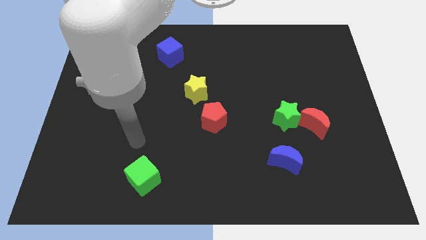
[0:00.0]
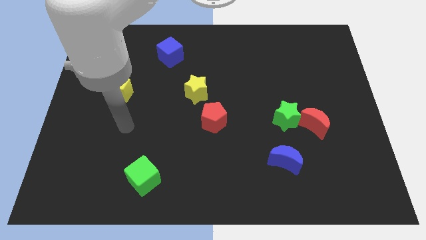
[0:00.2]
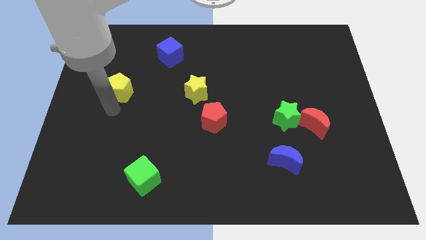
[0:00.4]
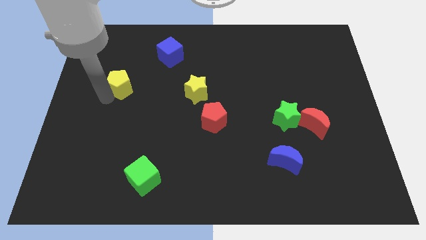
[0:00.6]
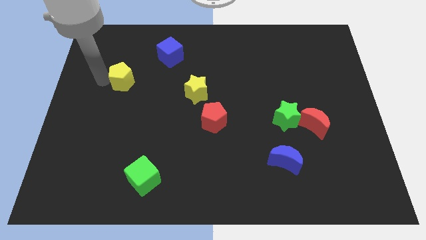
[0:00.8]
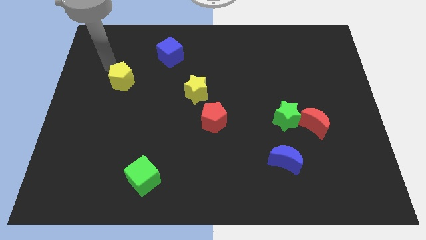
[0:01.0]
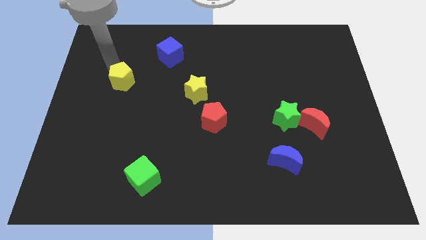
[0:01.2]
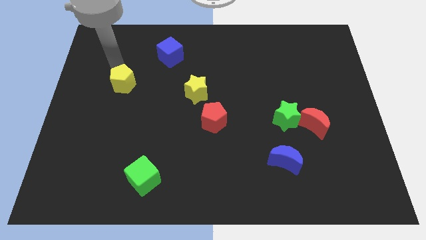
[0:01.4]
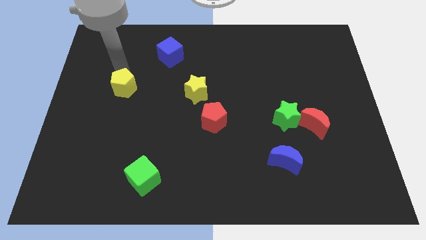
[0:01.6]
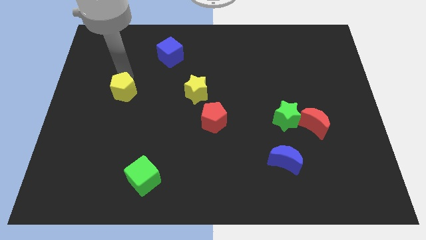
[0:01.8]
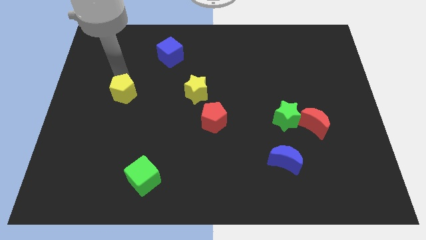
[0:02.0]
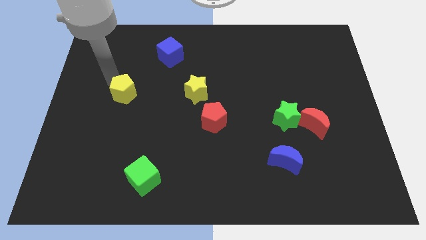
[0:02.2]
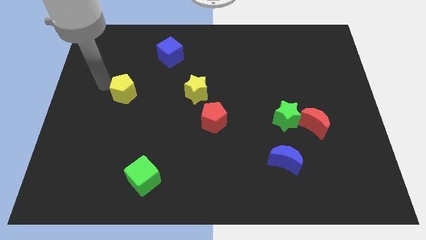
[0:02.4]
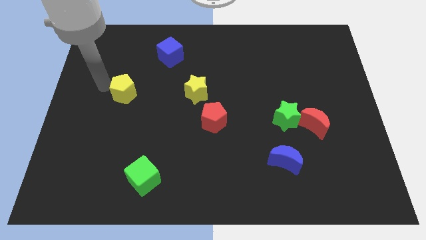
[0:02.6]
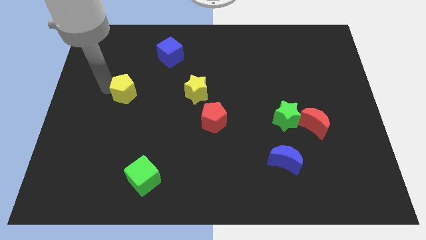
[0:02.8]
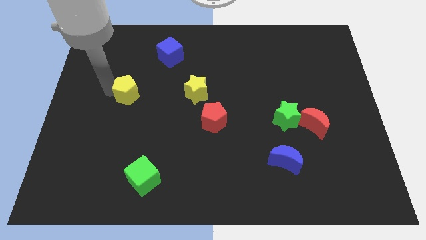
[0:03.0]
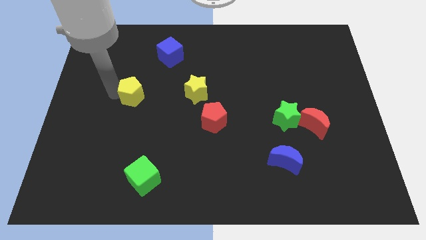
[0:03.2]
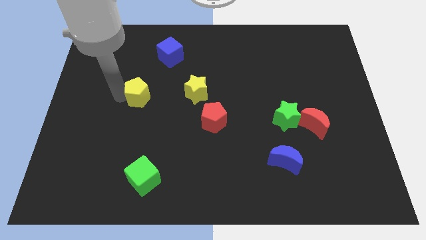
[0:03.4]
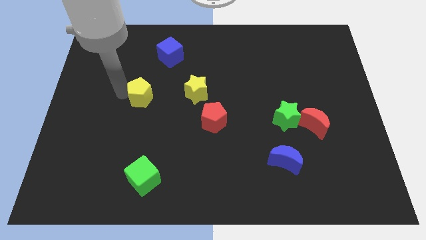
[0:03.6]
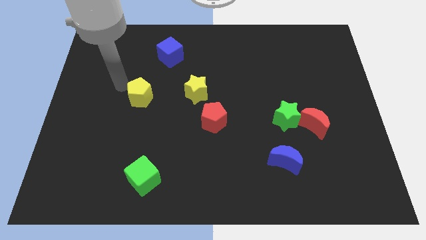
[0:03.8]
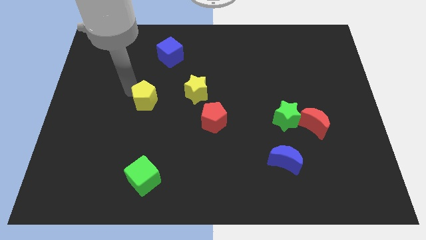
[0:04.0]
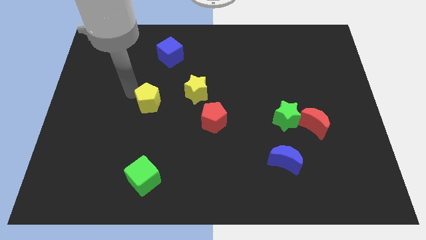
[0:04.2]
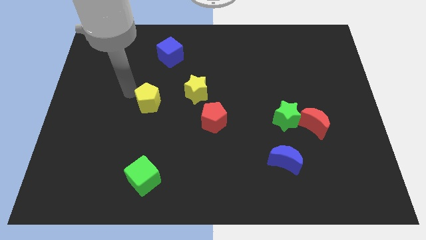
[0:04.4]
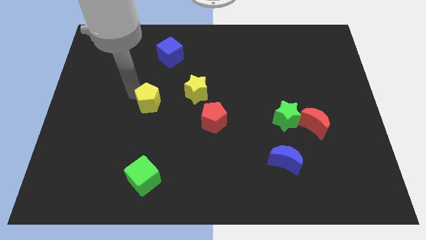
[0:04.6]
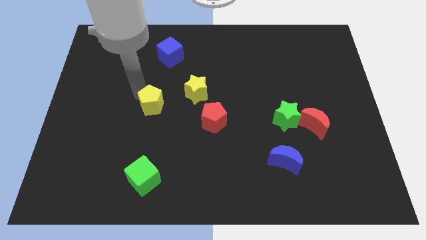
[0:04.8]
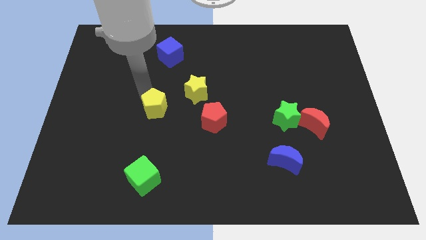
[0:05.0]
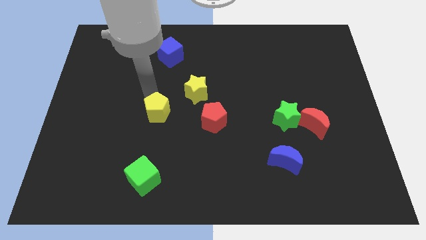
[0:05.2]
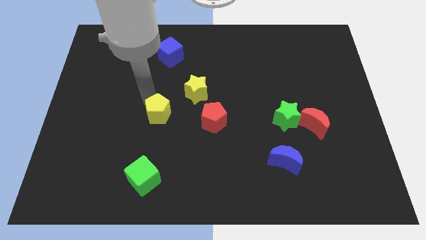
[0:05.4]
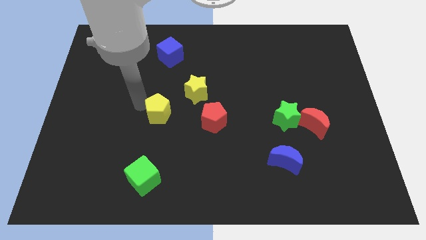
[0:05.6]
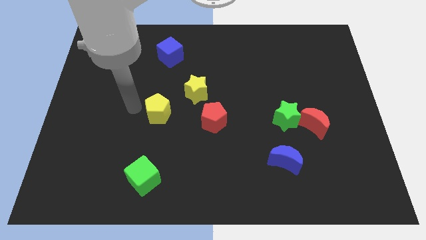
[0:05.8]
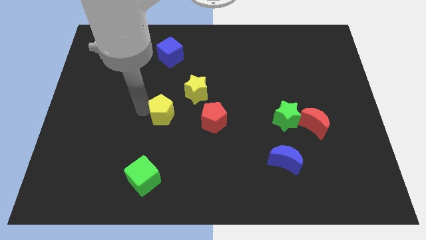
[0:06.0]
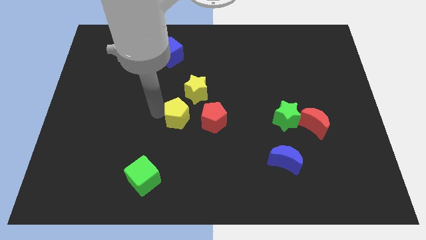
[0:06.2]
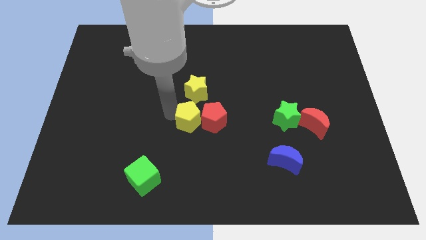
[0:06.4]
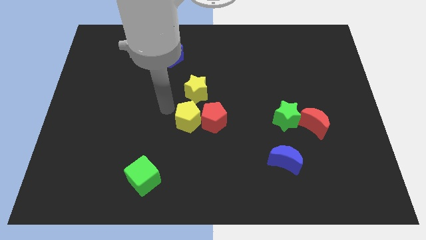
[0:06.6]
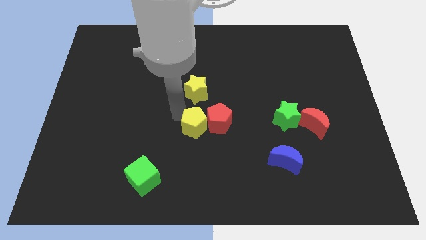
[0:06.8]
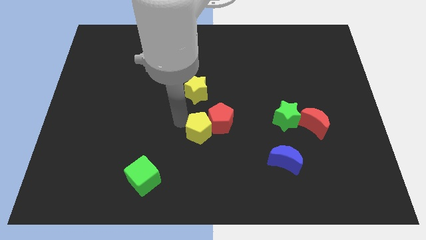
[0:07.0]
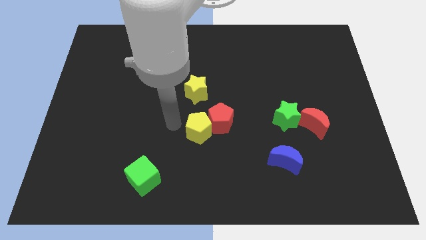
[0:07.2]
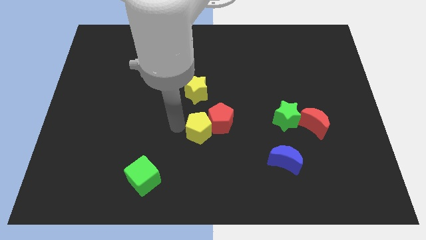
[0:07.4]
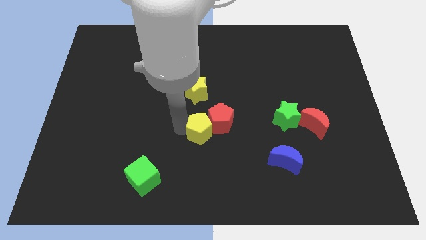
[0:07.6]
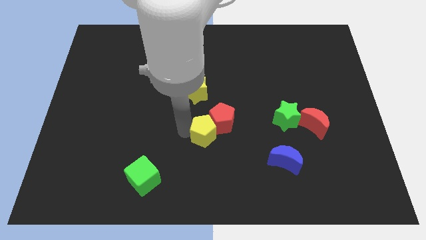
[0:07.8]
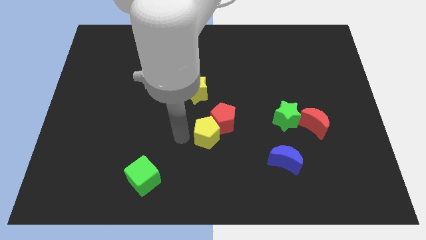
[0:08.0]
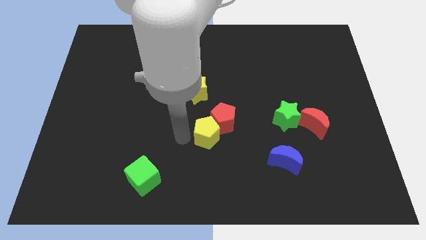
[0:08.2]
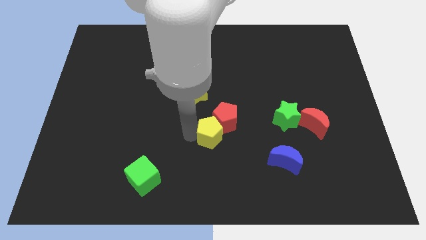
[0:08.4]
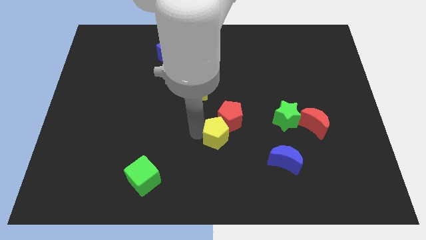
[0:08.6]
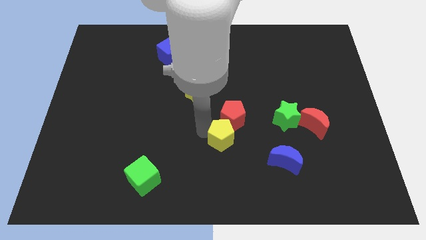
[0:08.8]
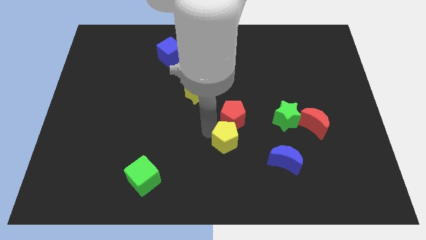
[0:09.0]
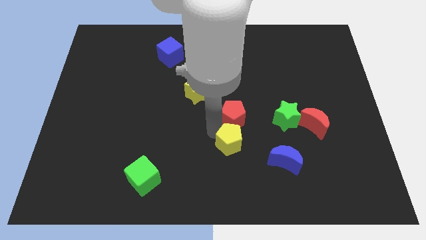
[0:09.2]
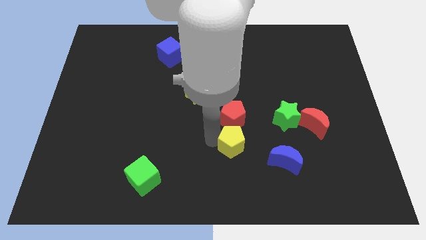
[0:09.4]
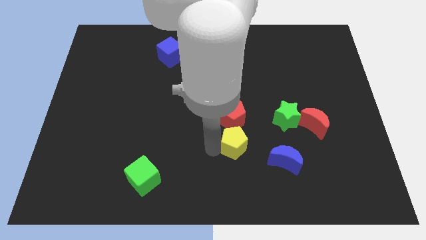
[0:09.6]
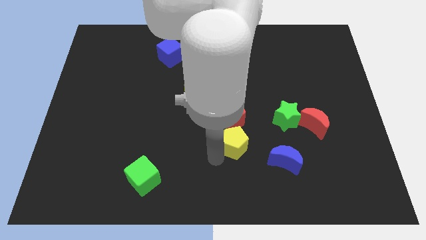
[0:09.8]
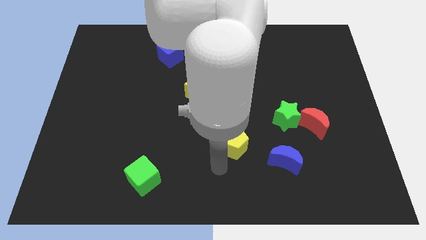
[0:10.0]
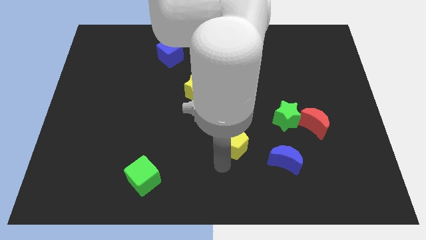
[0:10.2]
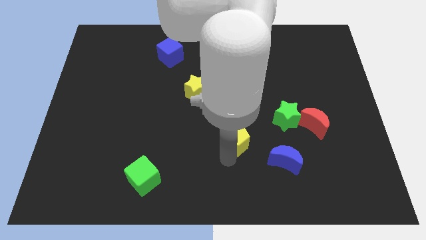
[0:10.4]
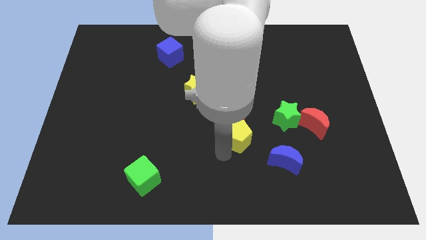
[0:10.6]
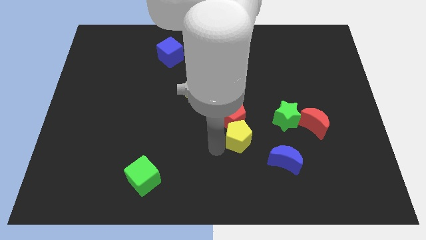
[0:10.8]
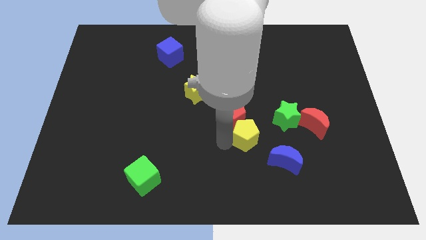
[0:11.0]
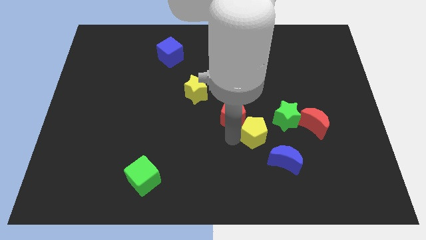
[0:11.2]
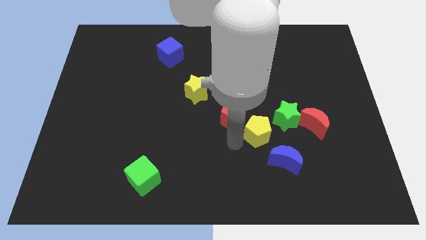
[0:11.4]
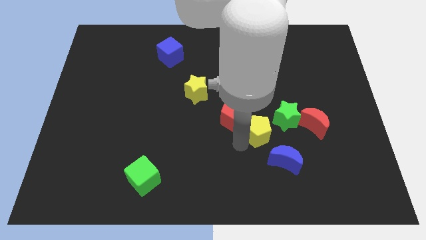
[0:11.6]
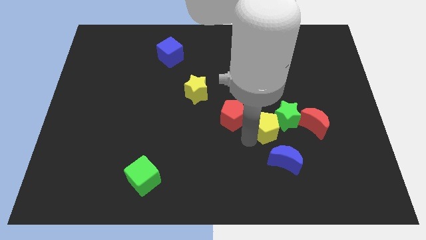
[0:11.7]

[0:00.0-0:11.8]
move the yellow pentagon next to the green star

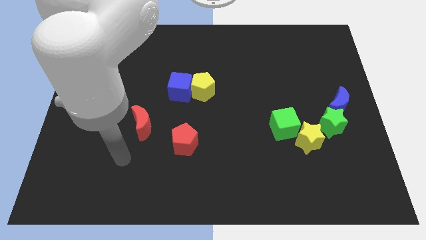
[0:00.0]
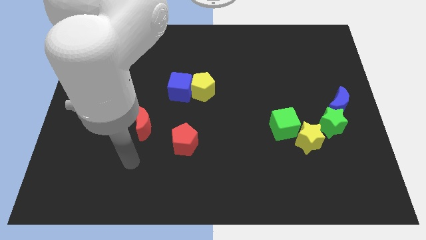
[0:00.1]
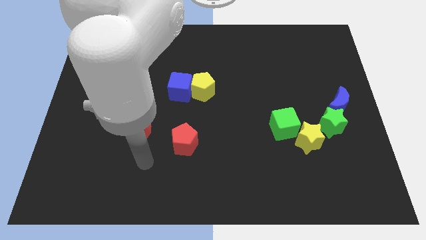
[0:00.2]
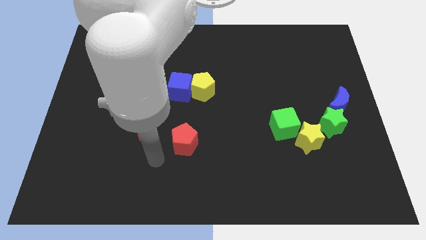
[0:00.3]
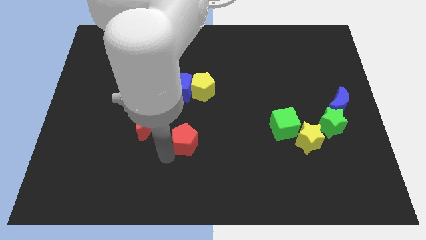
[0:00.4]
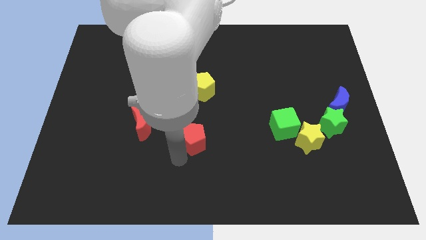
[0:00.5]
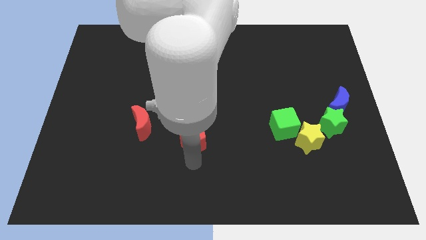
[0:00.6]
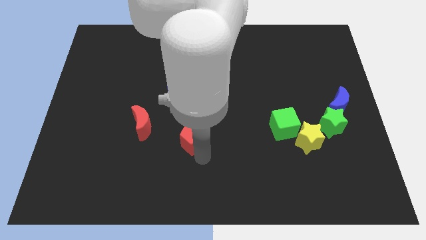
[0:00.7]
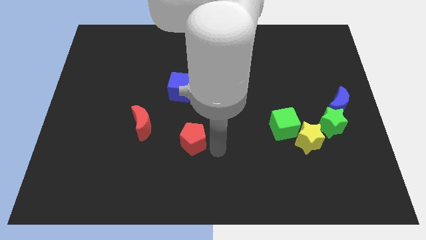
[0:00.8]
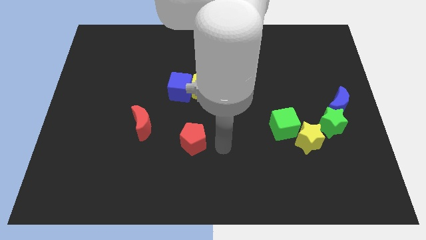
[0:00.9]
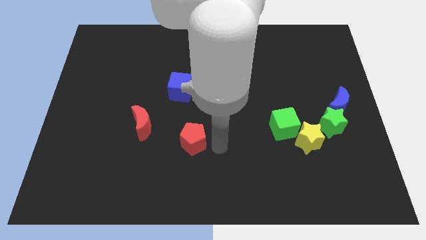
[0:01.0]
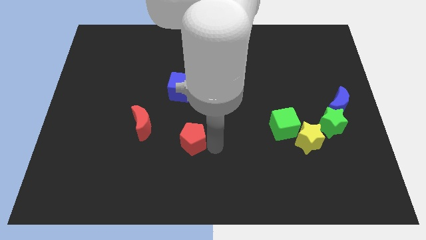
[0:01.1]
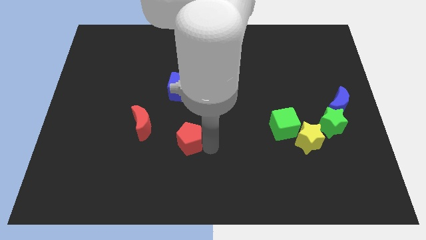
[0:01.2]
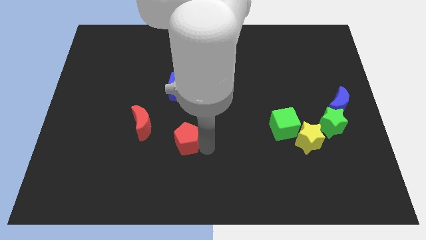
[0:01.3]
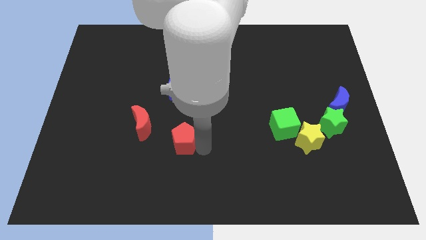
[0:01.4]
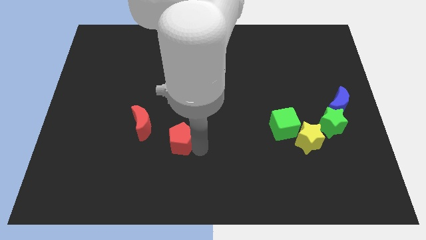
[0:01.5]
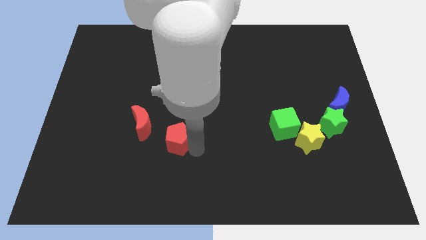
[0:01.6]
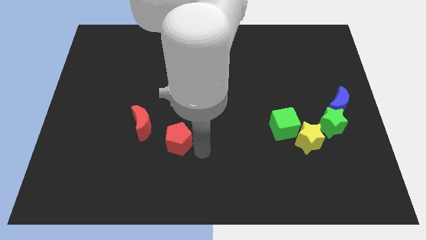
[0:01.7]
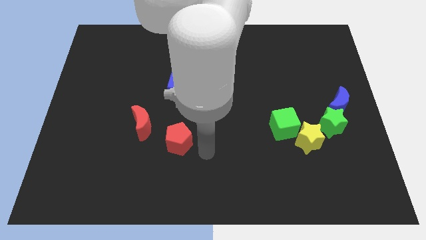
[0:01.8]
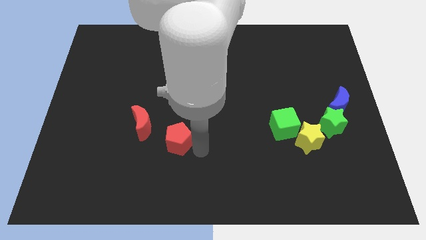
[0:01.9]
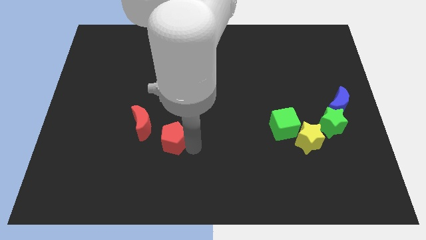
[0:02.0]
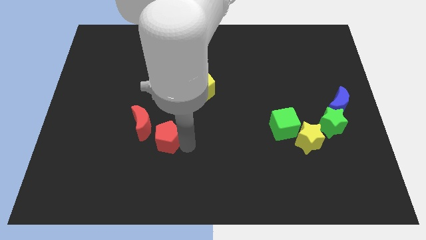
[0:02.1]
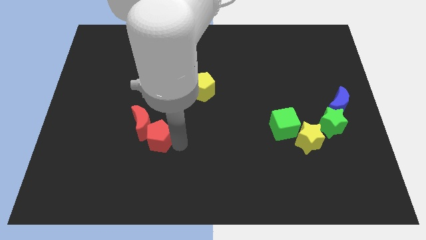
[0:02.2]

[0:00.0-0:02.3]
push the red pentagon towards the red moon
